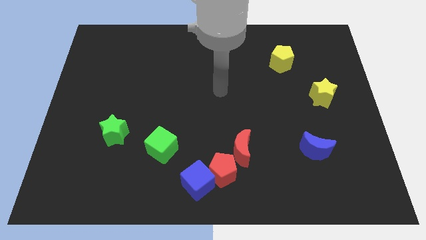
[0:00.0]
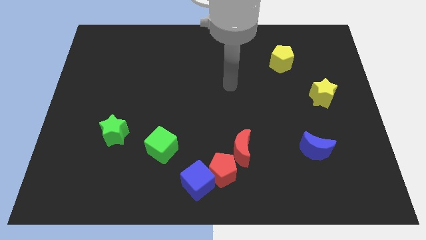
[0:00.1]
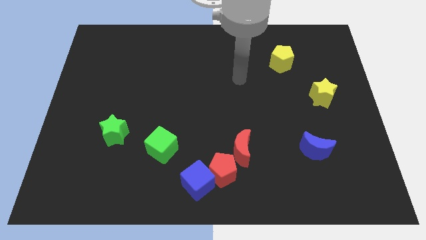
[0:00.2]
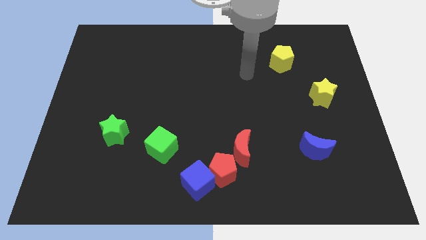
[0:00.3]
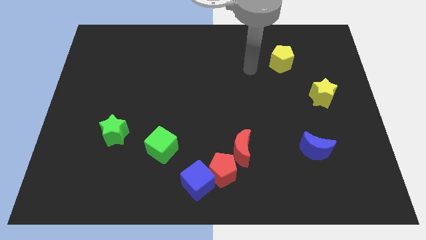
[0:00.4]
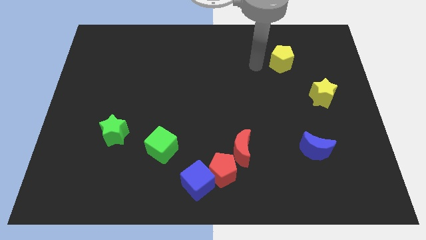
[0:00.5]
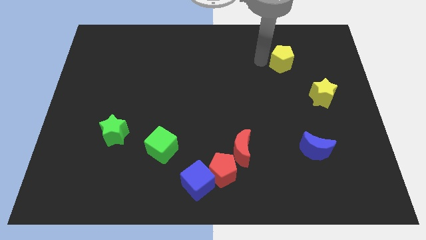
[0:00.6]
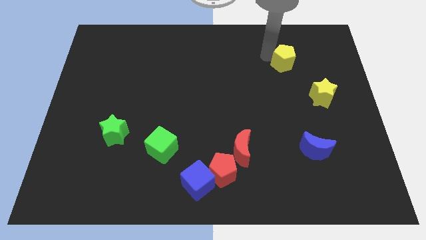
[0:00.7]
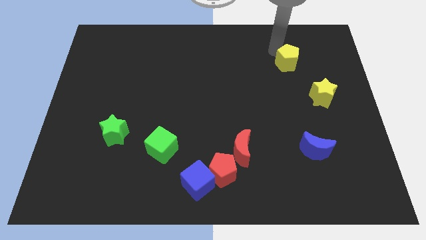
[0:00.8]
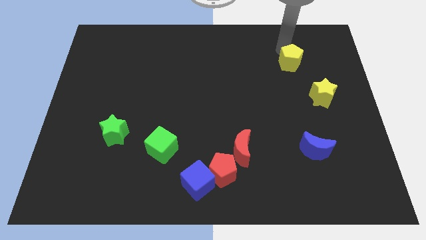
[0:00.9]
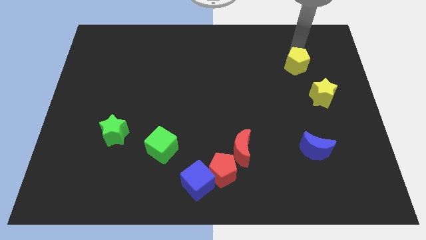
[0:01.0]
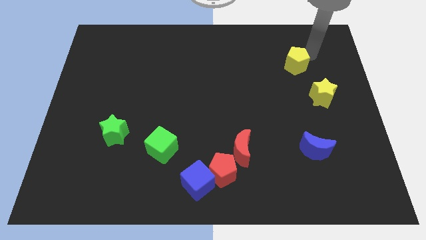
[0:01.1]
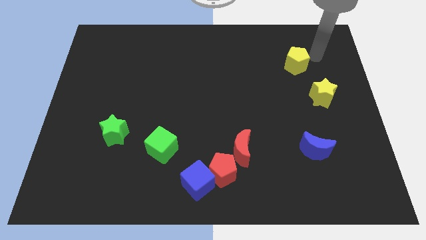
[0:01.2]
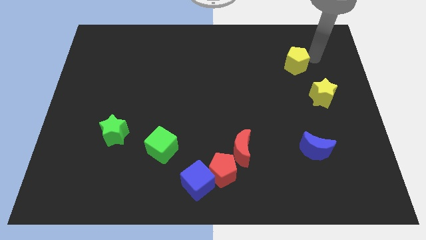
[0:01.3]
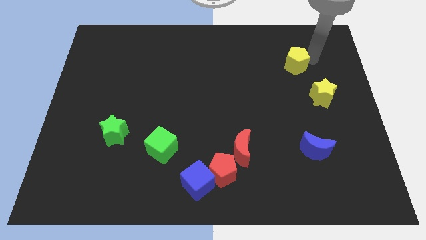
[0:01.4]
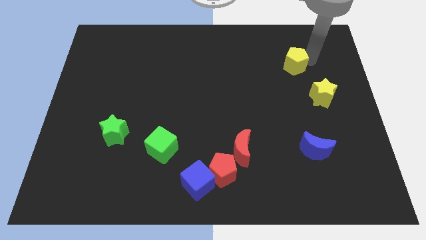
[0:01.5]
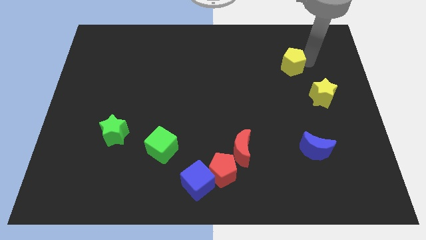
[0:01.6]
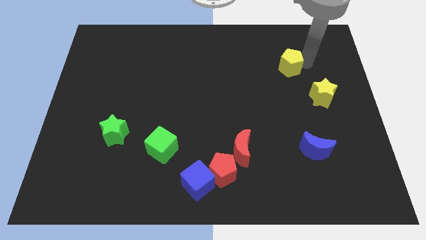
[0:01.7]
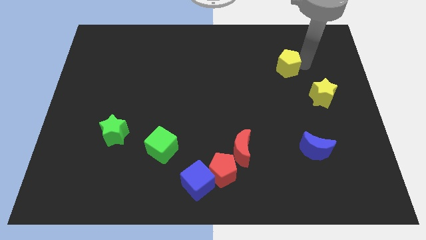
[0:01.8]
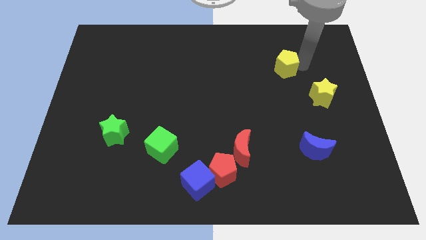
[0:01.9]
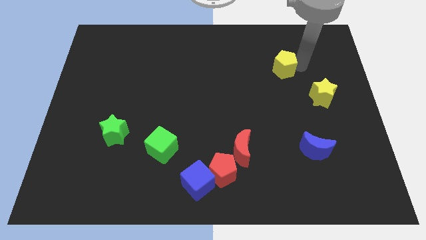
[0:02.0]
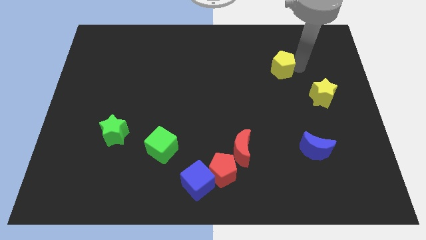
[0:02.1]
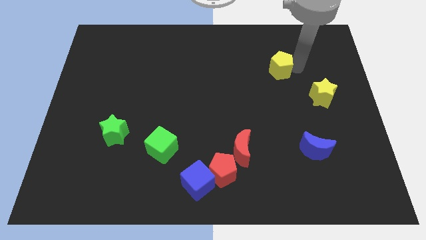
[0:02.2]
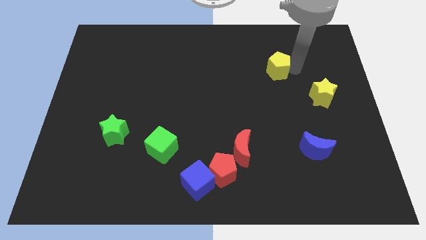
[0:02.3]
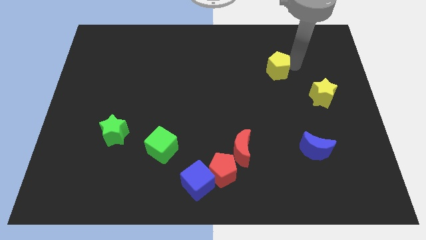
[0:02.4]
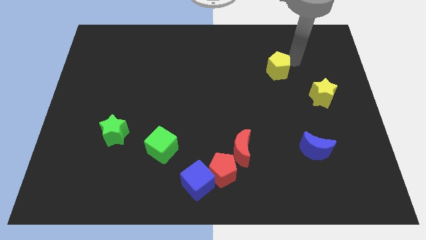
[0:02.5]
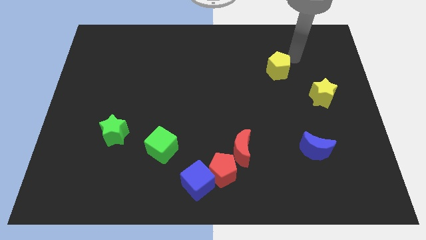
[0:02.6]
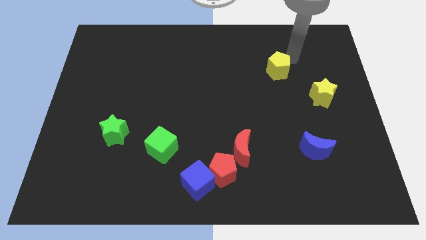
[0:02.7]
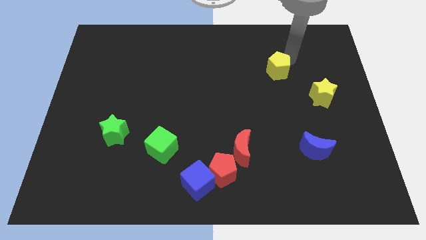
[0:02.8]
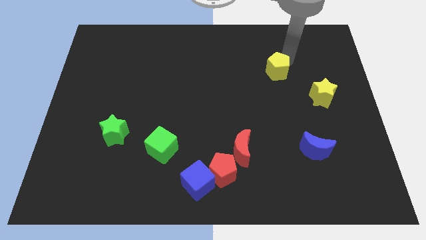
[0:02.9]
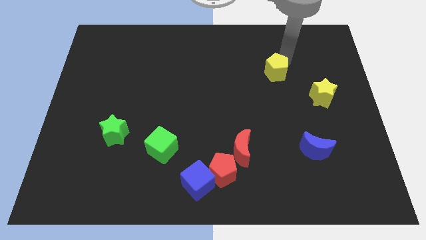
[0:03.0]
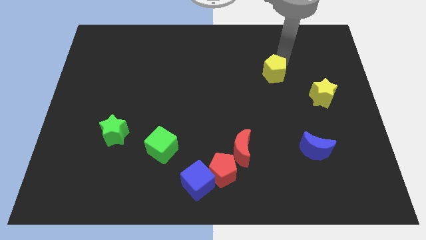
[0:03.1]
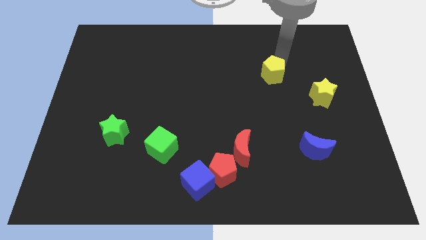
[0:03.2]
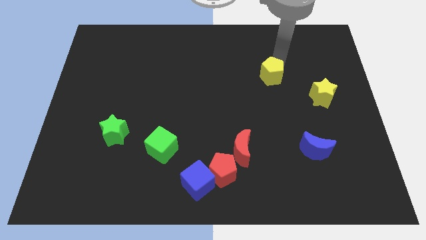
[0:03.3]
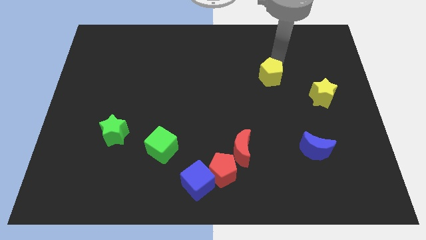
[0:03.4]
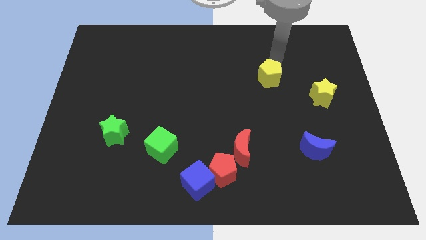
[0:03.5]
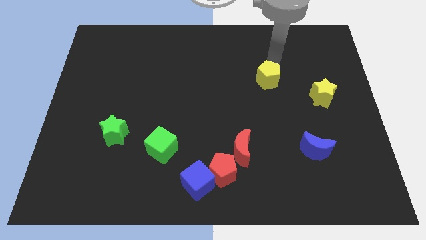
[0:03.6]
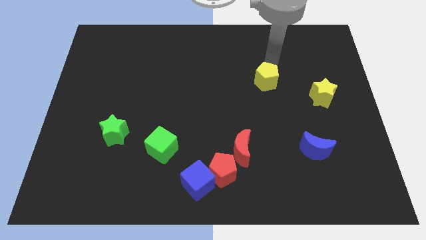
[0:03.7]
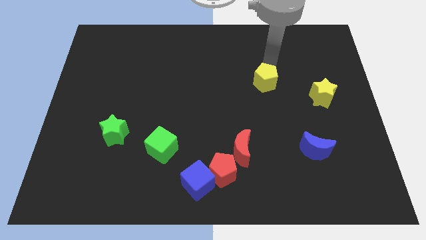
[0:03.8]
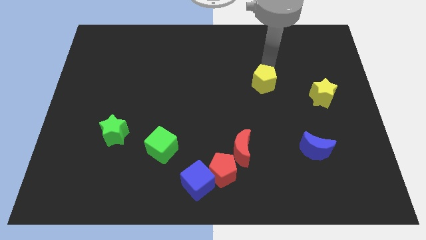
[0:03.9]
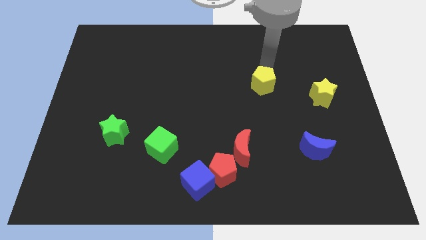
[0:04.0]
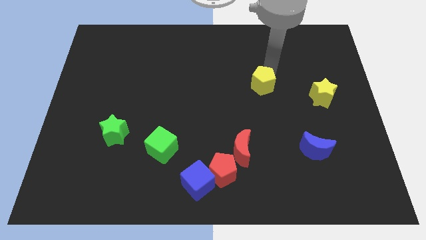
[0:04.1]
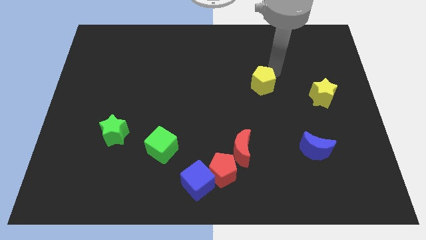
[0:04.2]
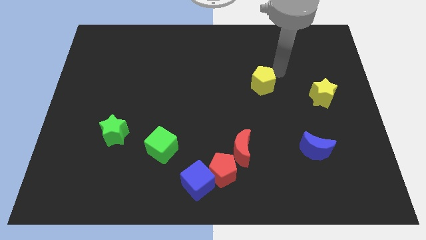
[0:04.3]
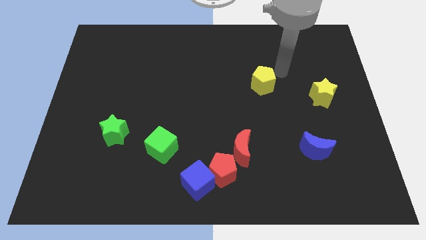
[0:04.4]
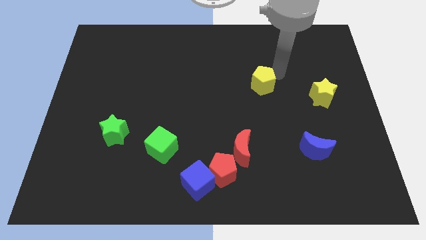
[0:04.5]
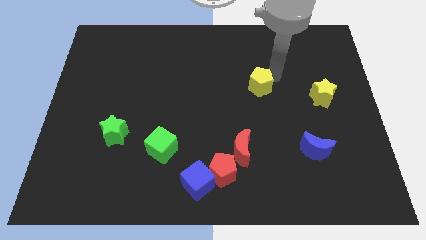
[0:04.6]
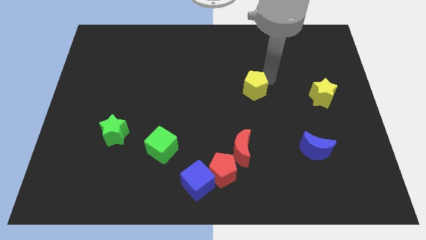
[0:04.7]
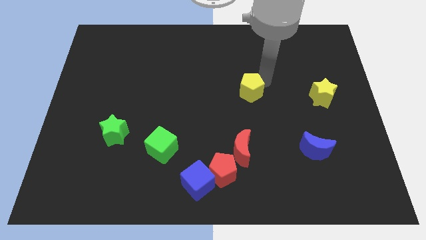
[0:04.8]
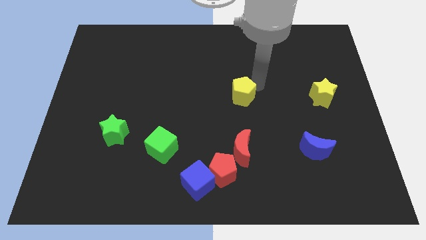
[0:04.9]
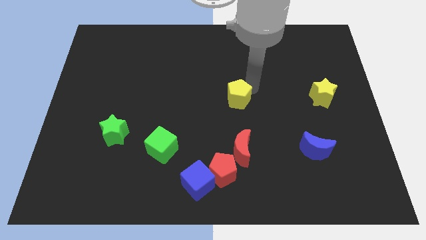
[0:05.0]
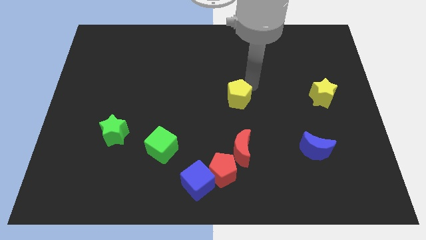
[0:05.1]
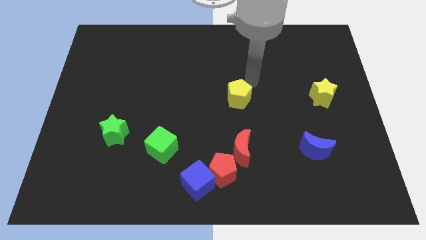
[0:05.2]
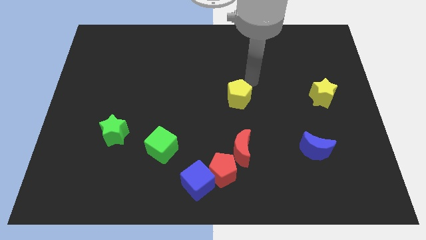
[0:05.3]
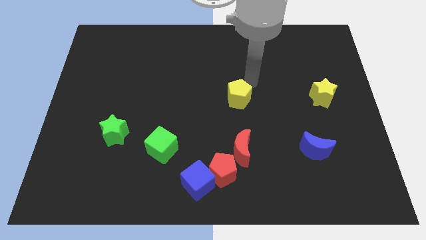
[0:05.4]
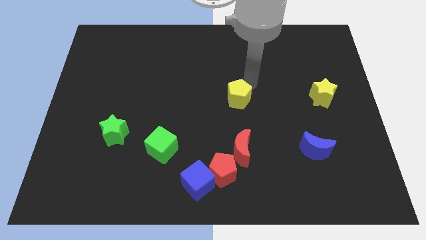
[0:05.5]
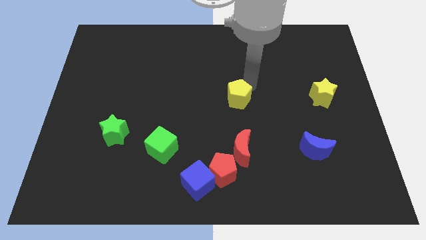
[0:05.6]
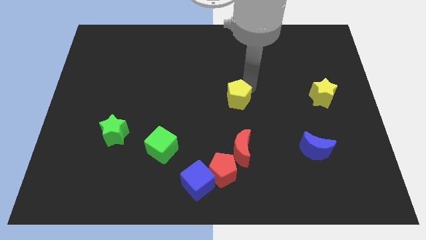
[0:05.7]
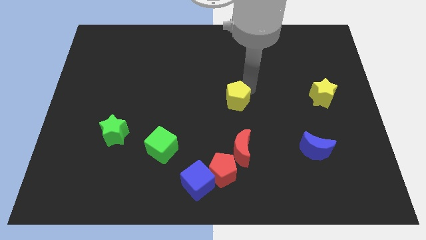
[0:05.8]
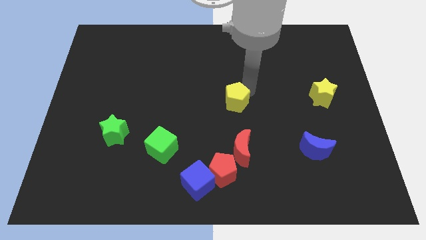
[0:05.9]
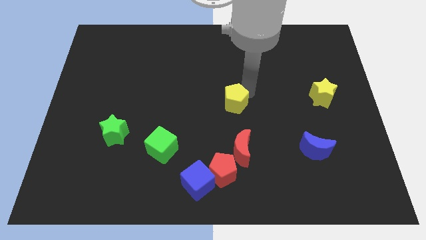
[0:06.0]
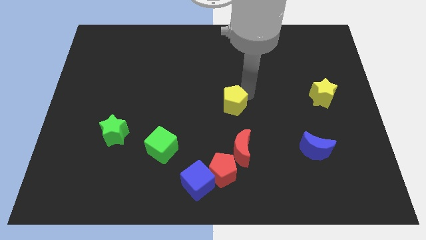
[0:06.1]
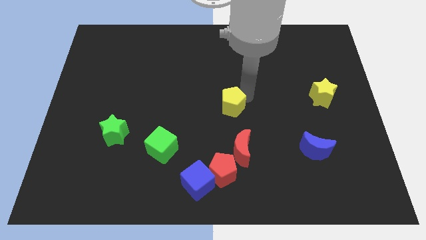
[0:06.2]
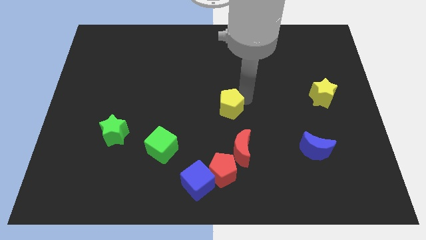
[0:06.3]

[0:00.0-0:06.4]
push the yellow pentagon diagonally down and to the left

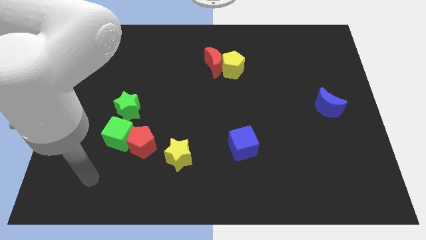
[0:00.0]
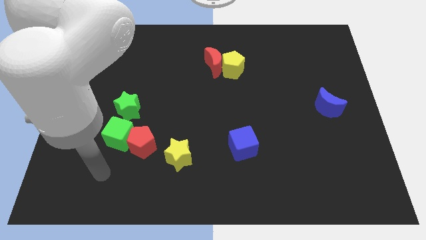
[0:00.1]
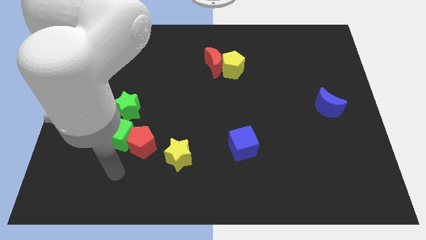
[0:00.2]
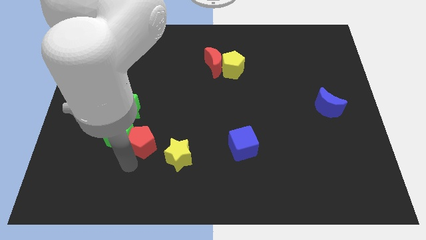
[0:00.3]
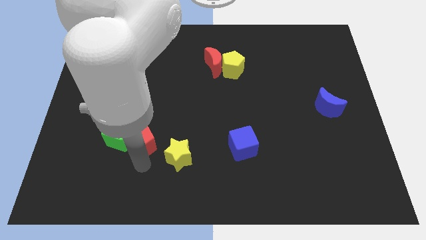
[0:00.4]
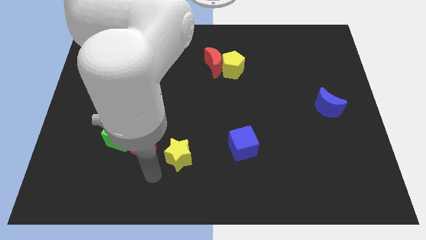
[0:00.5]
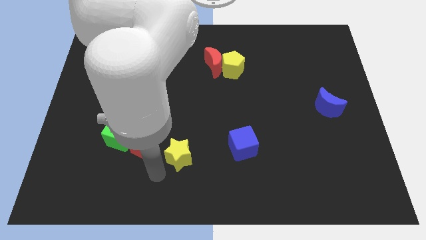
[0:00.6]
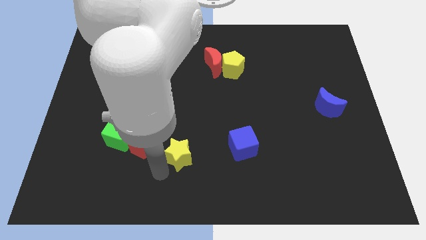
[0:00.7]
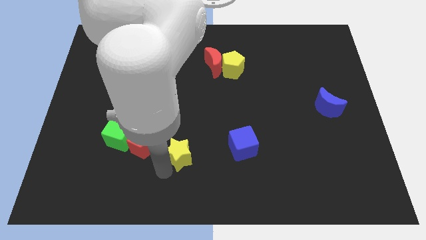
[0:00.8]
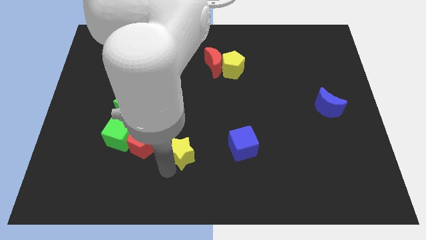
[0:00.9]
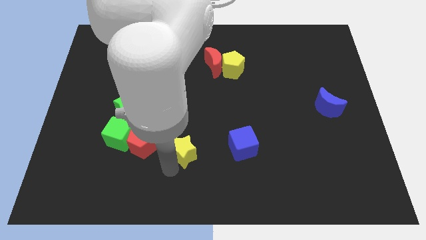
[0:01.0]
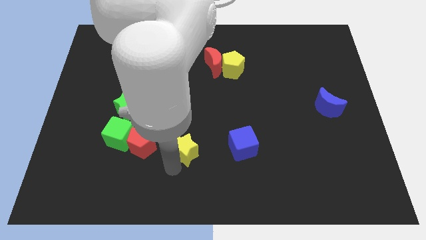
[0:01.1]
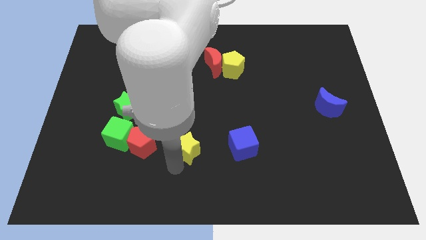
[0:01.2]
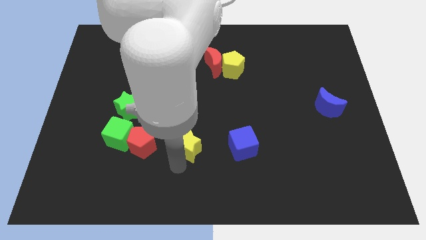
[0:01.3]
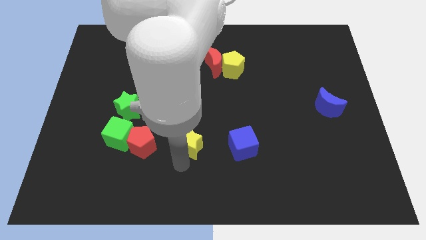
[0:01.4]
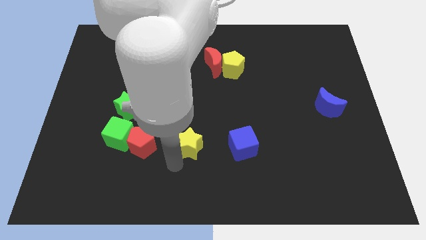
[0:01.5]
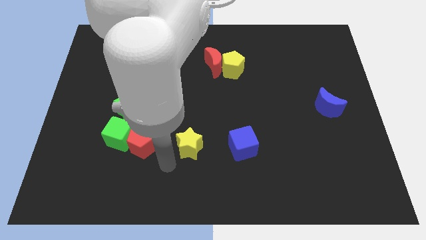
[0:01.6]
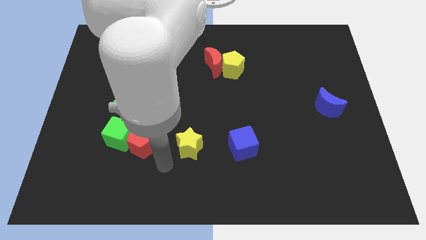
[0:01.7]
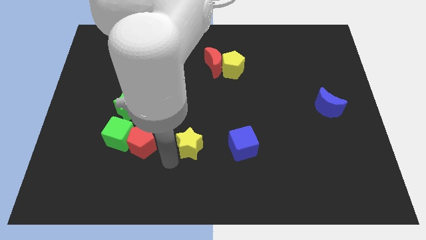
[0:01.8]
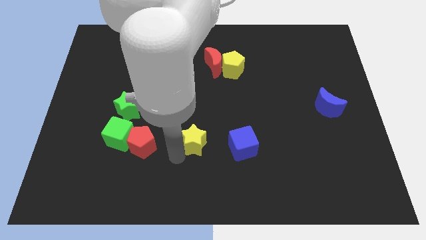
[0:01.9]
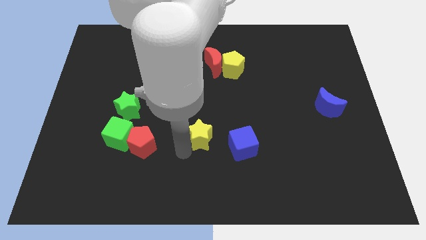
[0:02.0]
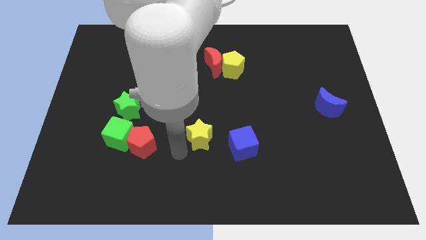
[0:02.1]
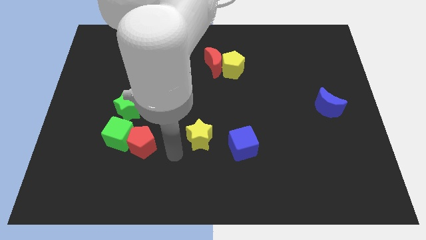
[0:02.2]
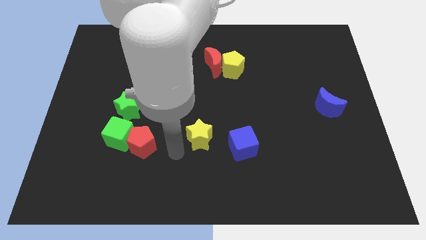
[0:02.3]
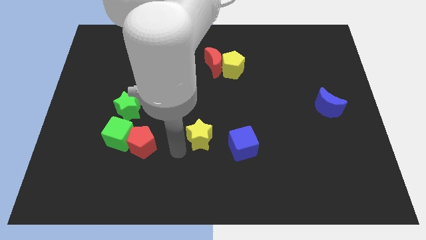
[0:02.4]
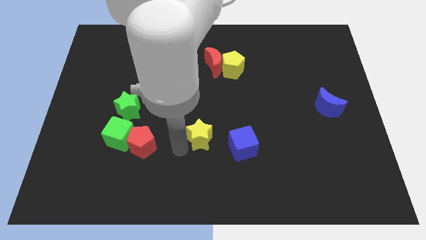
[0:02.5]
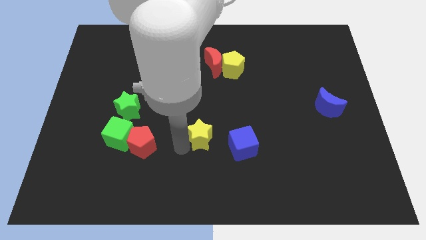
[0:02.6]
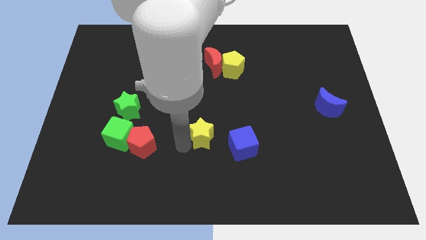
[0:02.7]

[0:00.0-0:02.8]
slightly move the yellow star upwards and to the right diagonally
